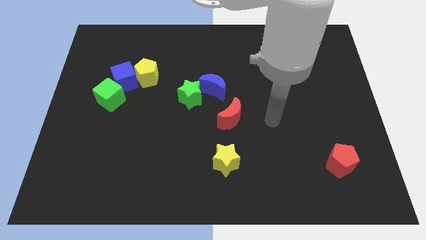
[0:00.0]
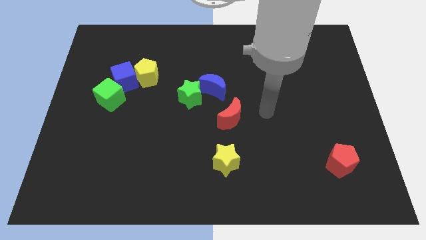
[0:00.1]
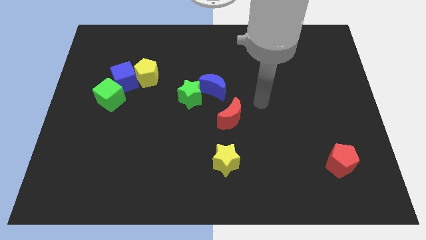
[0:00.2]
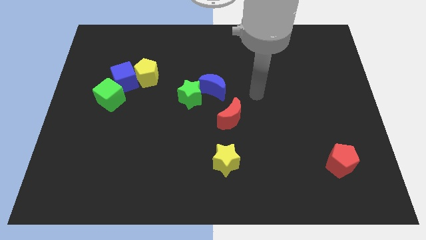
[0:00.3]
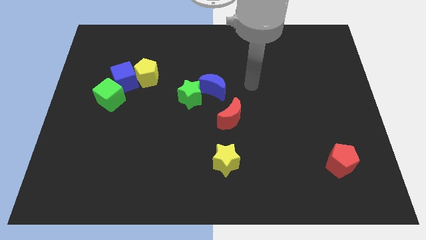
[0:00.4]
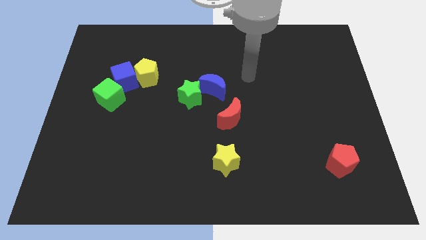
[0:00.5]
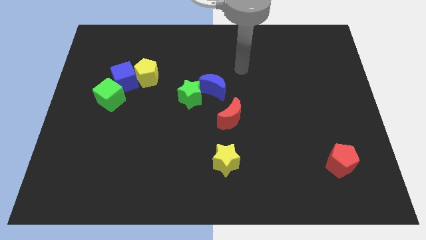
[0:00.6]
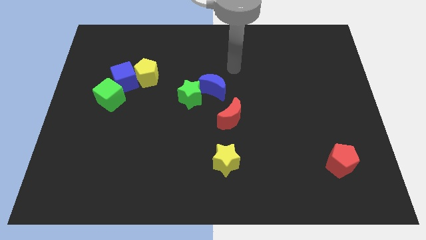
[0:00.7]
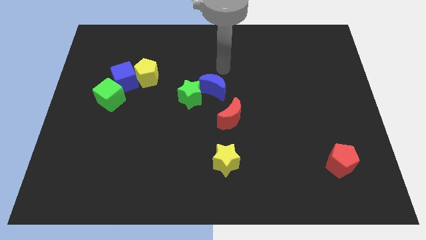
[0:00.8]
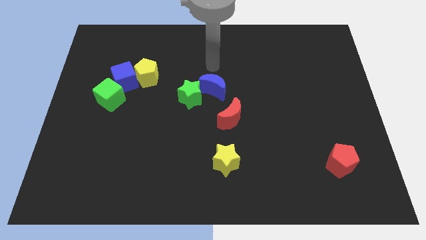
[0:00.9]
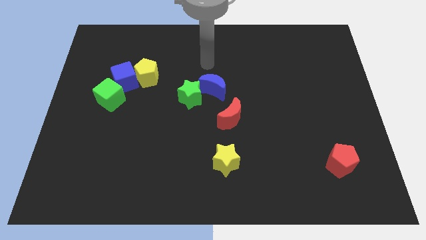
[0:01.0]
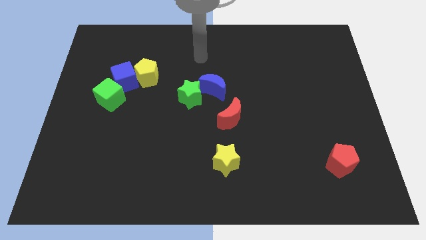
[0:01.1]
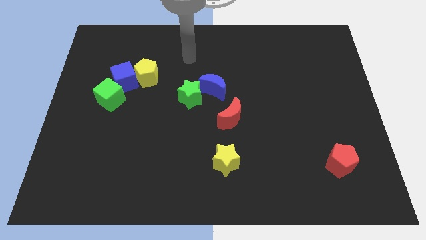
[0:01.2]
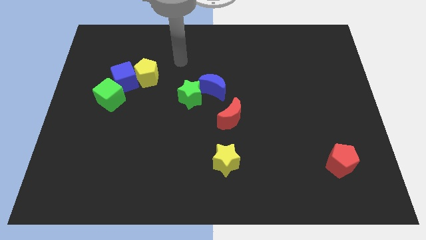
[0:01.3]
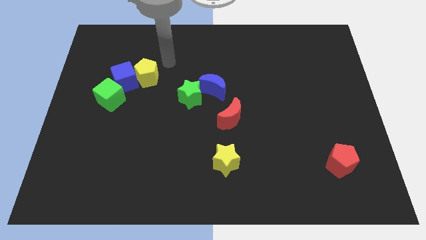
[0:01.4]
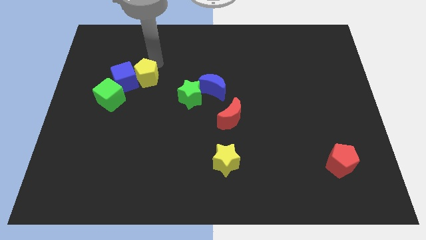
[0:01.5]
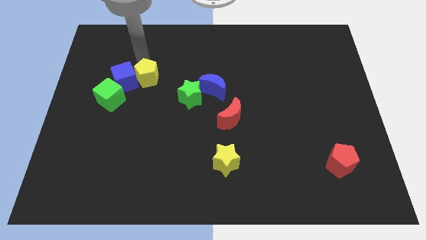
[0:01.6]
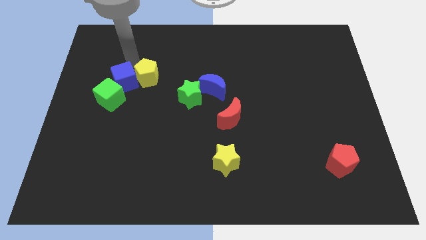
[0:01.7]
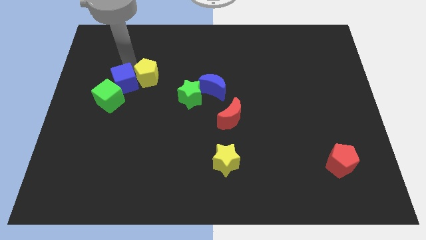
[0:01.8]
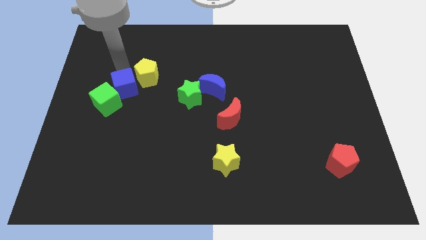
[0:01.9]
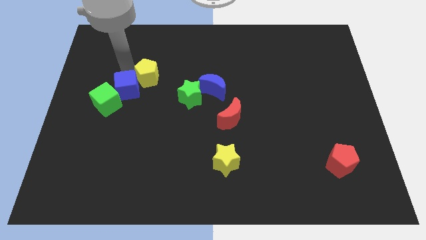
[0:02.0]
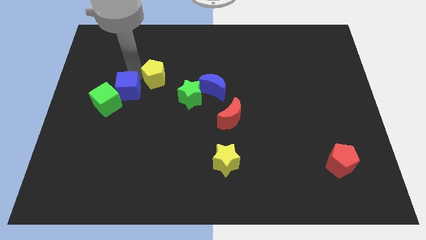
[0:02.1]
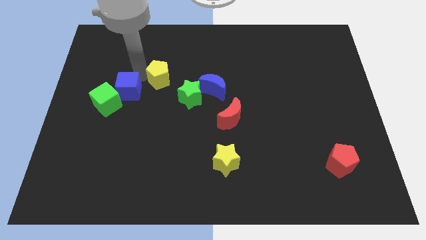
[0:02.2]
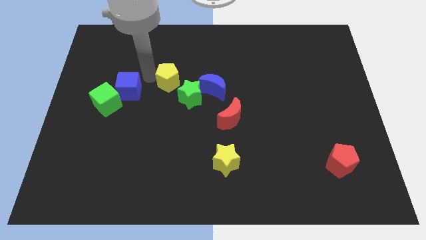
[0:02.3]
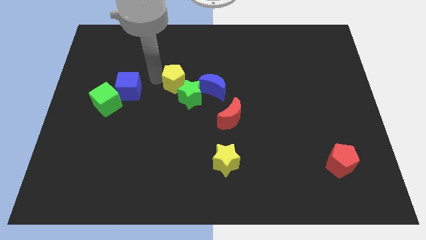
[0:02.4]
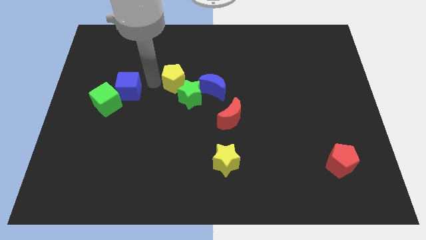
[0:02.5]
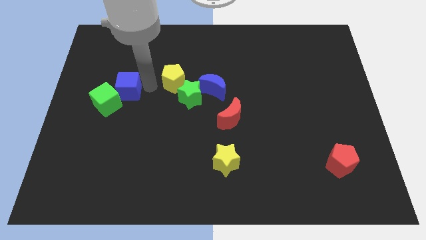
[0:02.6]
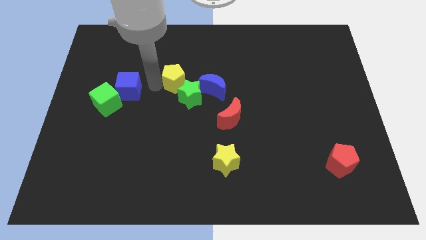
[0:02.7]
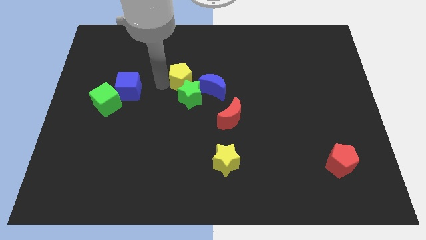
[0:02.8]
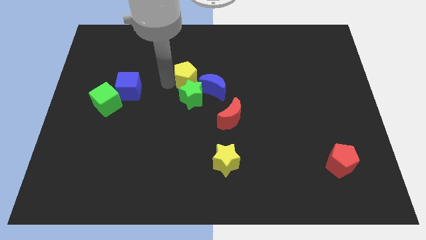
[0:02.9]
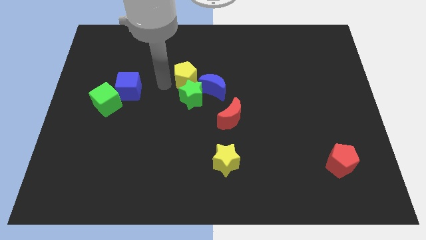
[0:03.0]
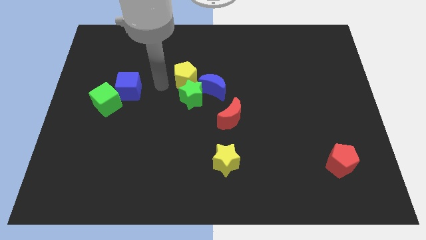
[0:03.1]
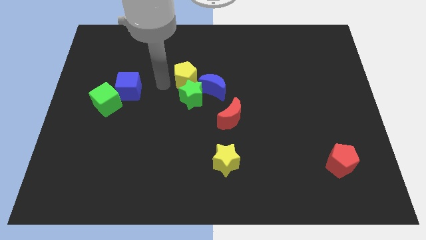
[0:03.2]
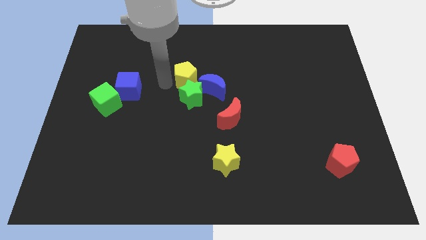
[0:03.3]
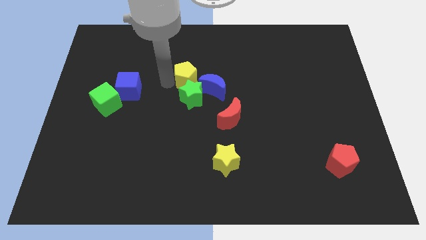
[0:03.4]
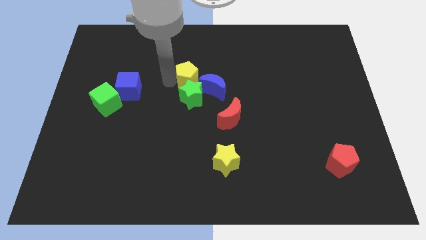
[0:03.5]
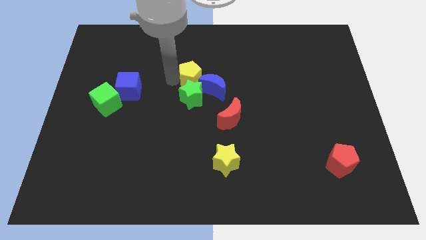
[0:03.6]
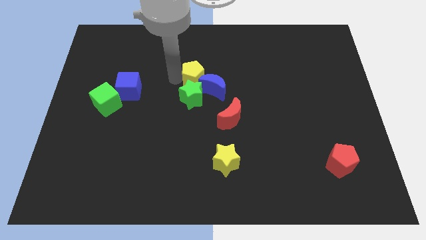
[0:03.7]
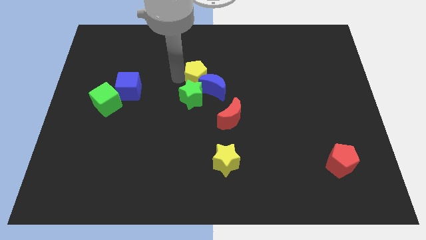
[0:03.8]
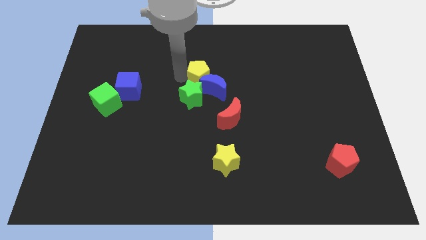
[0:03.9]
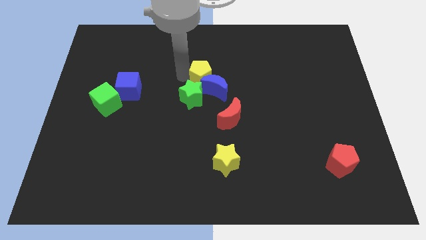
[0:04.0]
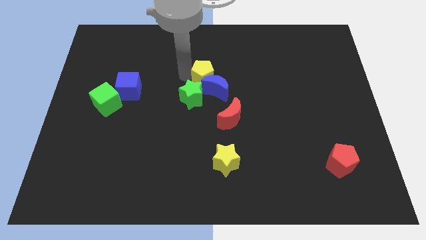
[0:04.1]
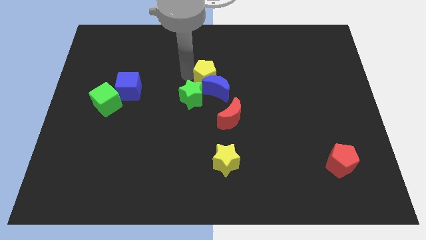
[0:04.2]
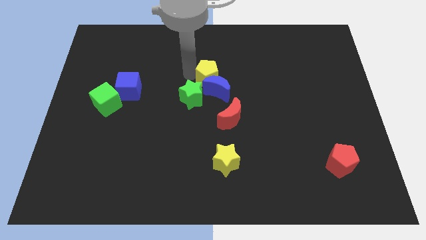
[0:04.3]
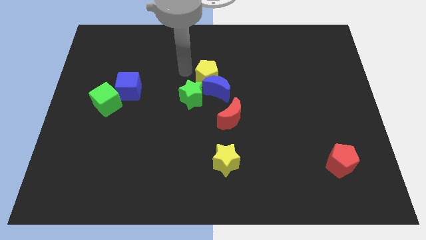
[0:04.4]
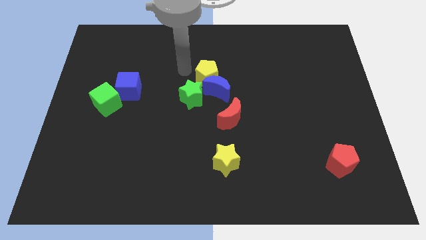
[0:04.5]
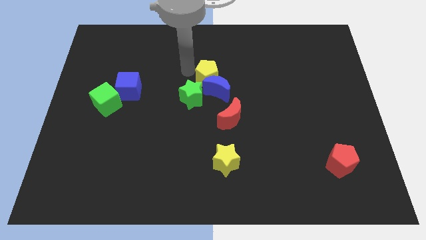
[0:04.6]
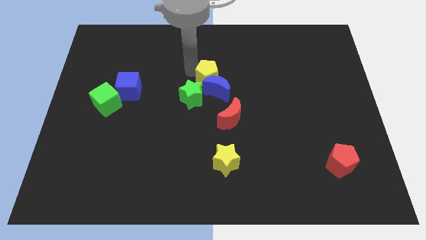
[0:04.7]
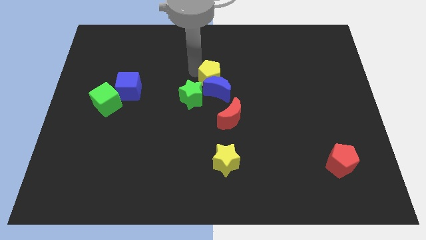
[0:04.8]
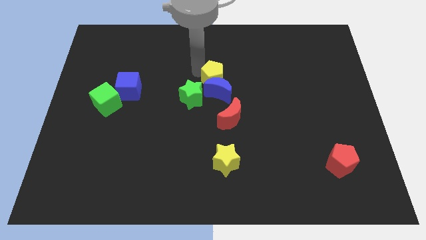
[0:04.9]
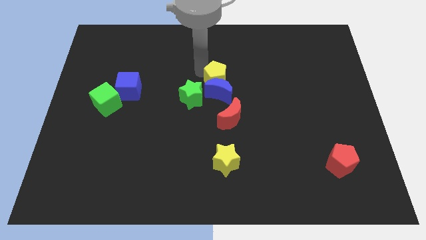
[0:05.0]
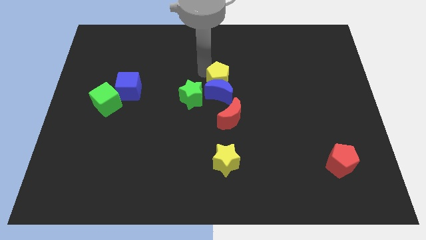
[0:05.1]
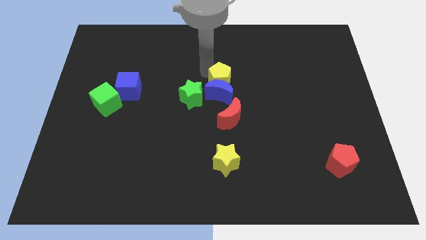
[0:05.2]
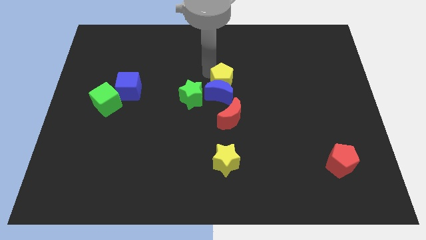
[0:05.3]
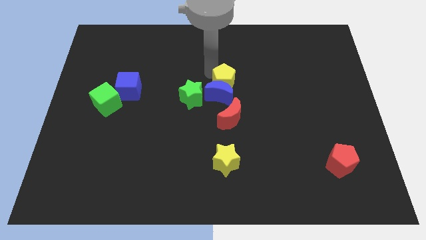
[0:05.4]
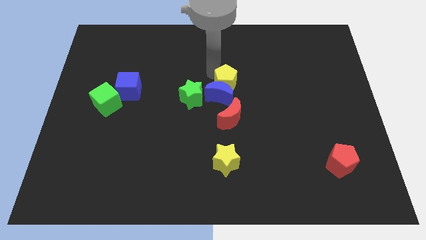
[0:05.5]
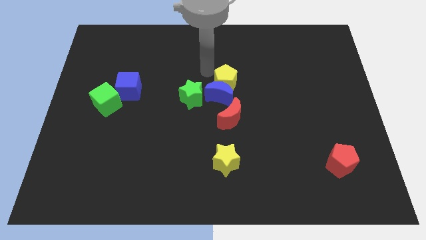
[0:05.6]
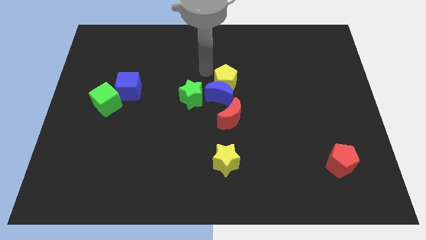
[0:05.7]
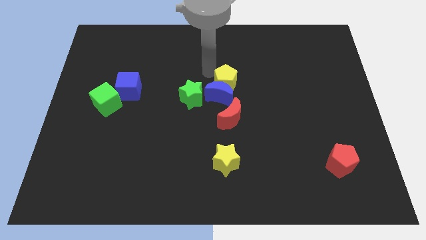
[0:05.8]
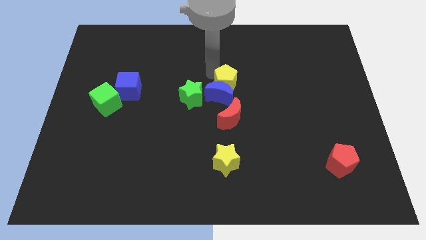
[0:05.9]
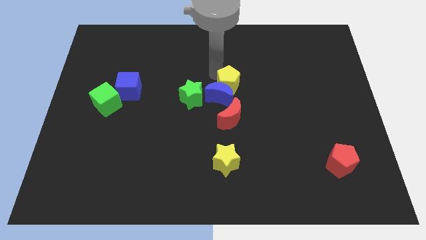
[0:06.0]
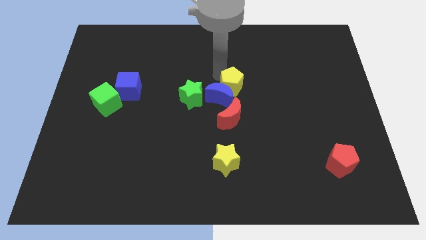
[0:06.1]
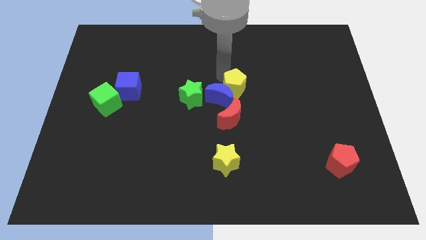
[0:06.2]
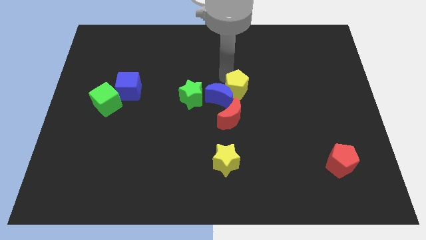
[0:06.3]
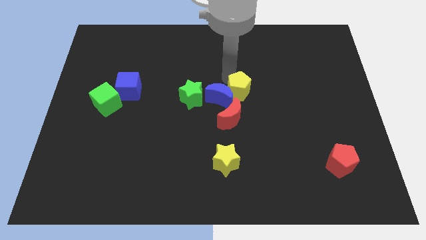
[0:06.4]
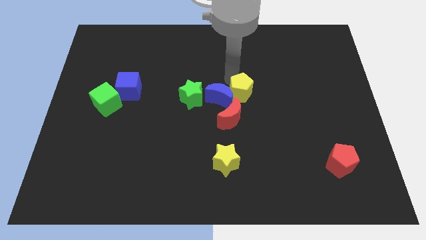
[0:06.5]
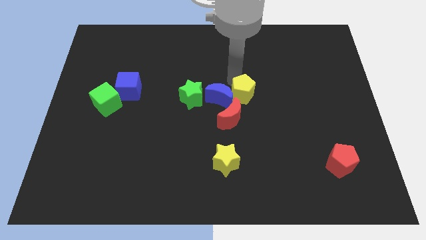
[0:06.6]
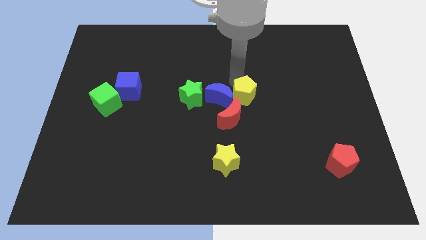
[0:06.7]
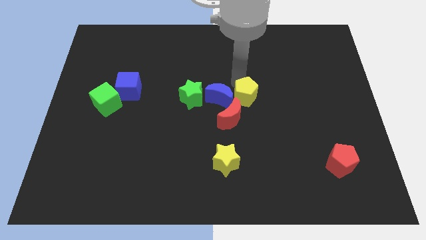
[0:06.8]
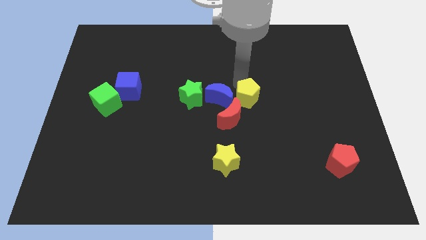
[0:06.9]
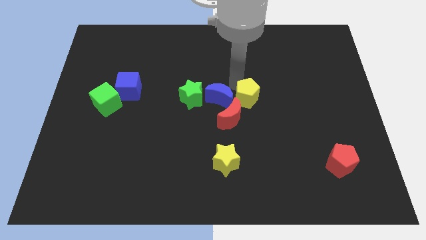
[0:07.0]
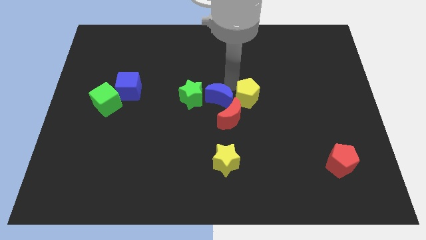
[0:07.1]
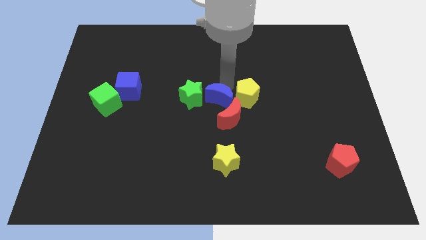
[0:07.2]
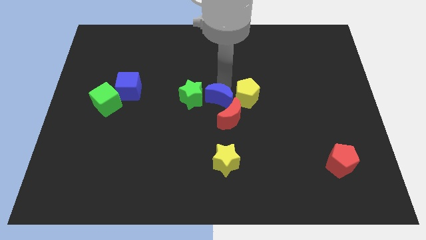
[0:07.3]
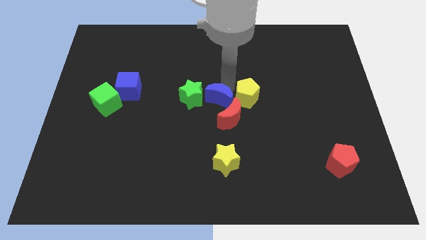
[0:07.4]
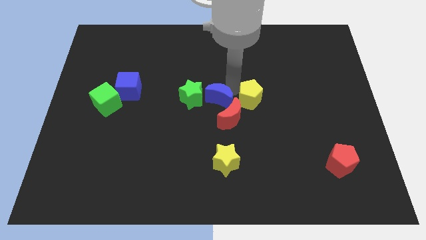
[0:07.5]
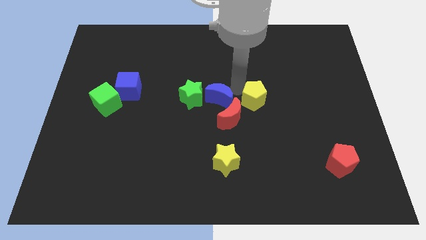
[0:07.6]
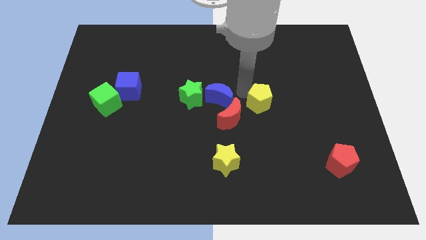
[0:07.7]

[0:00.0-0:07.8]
slide the yellow pentagon right of the red moon
